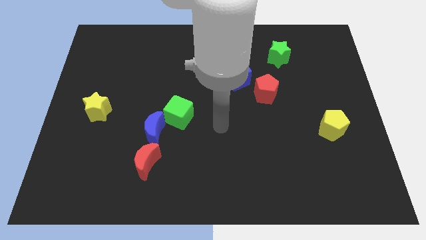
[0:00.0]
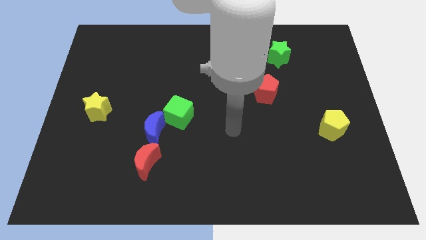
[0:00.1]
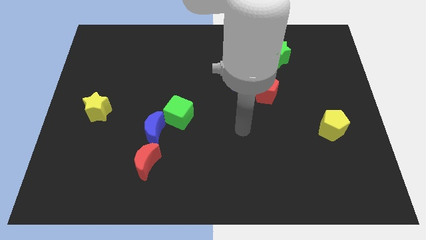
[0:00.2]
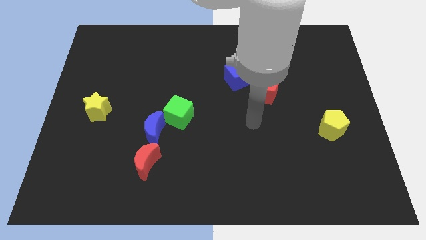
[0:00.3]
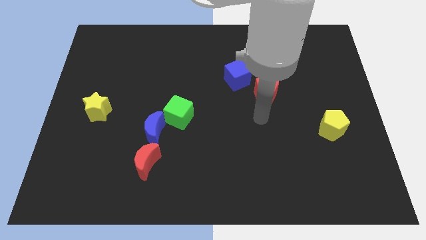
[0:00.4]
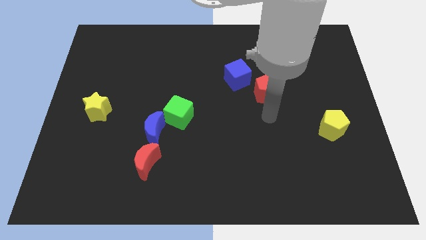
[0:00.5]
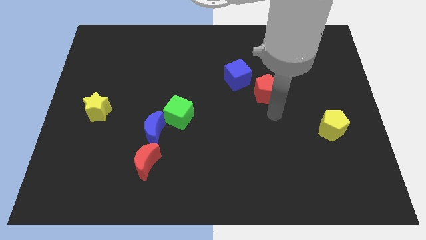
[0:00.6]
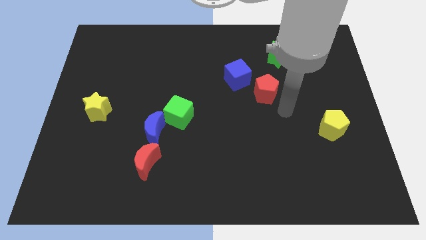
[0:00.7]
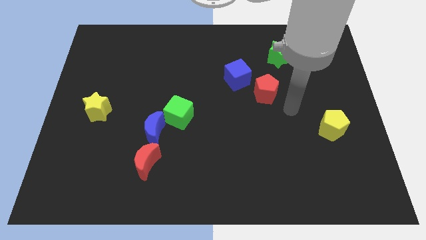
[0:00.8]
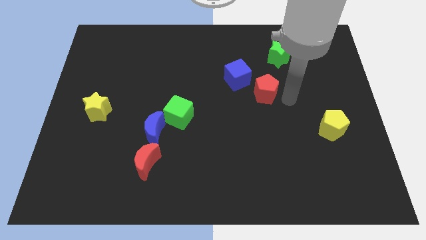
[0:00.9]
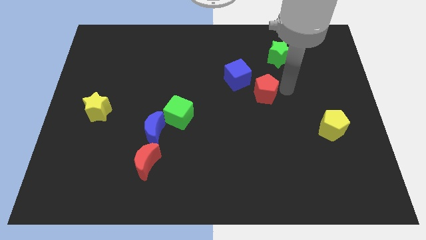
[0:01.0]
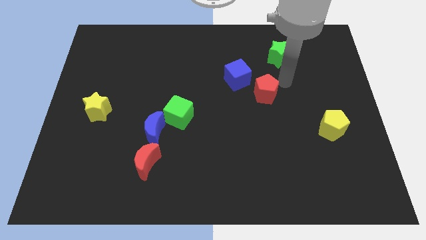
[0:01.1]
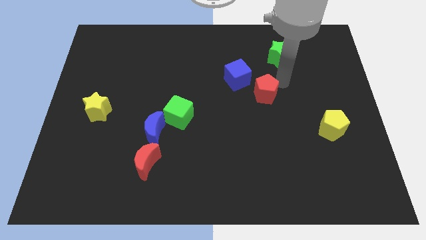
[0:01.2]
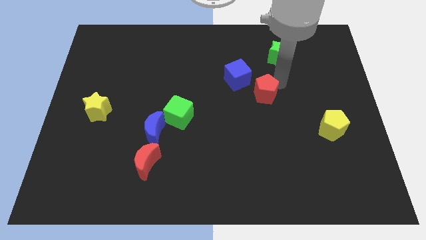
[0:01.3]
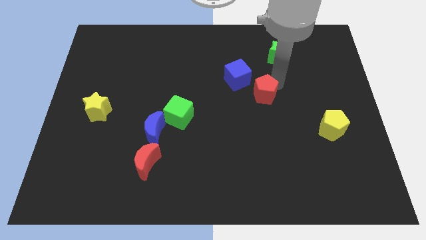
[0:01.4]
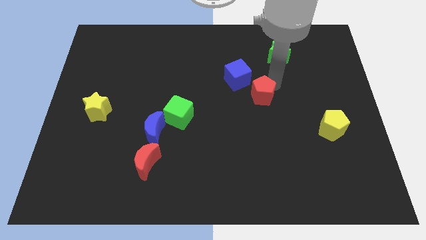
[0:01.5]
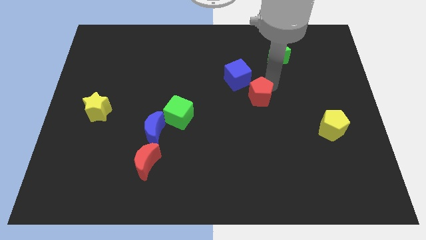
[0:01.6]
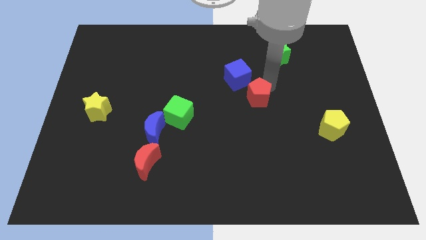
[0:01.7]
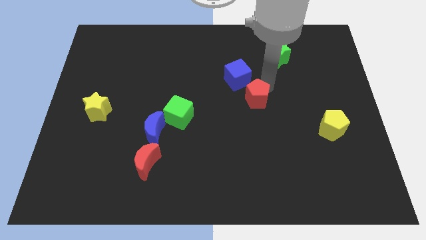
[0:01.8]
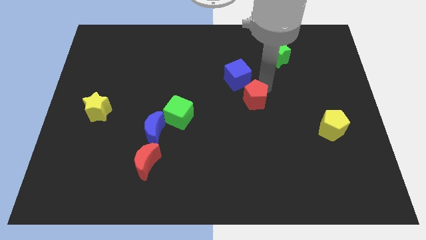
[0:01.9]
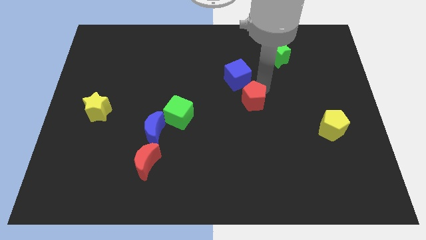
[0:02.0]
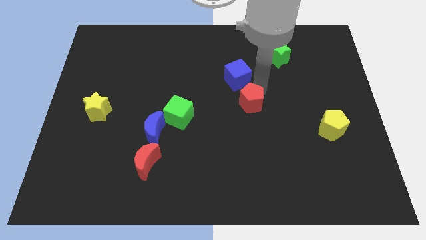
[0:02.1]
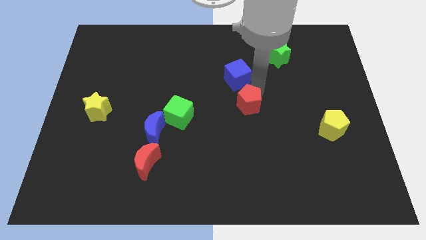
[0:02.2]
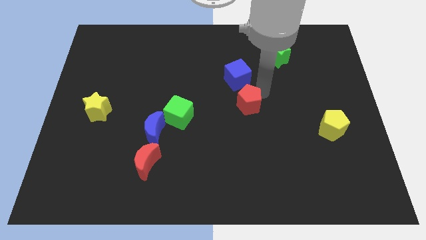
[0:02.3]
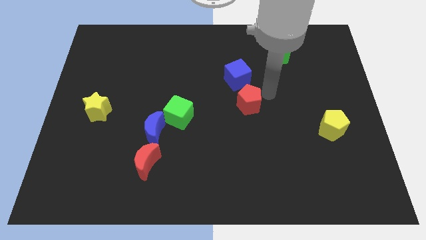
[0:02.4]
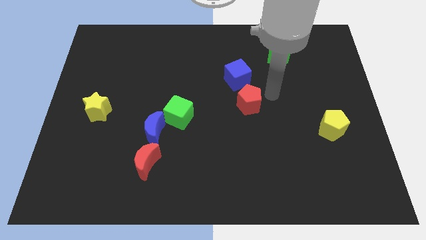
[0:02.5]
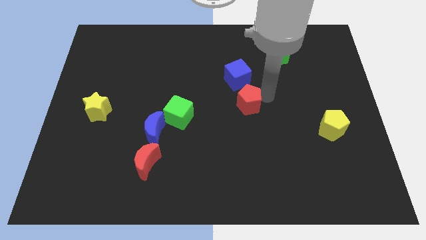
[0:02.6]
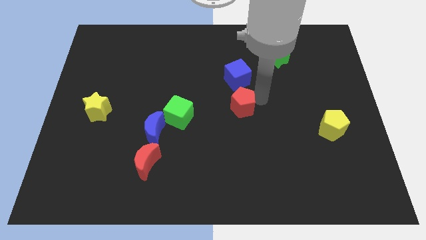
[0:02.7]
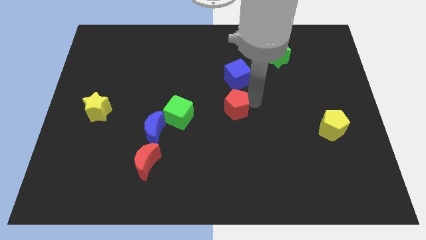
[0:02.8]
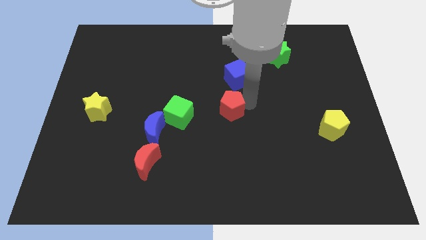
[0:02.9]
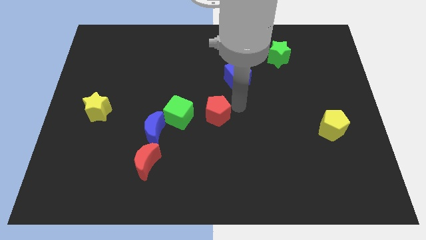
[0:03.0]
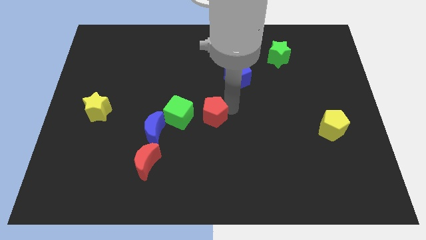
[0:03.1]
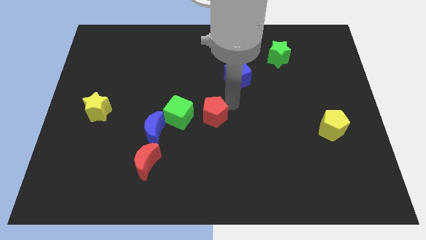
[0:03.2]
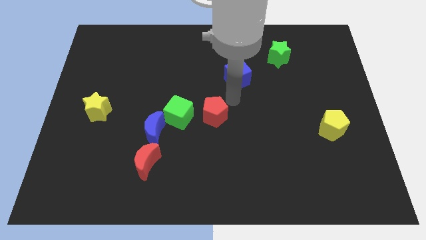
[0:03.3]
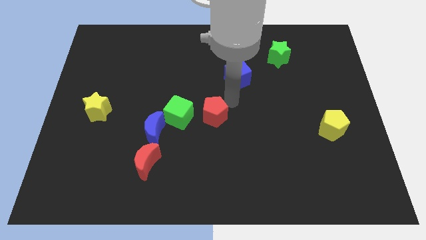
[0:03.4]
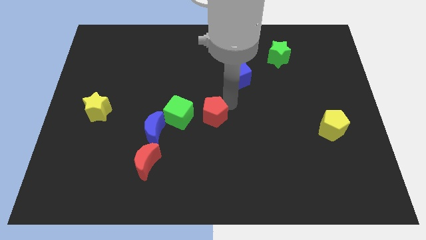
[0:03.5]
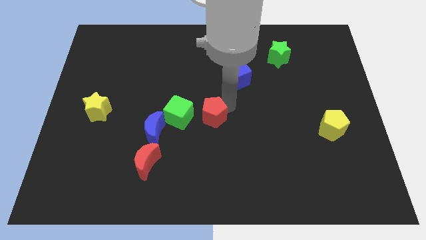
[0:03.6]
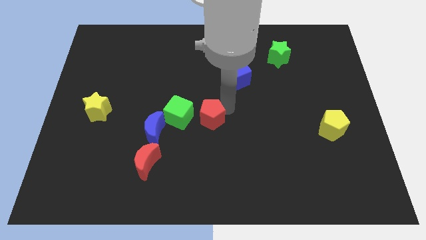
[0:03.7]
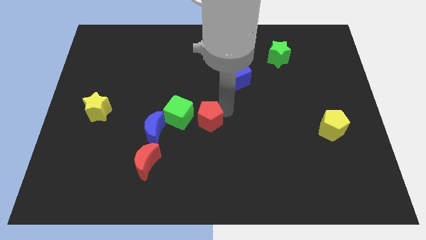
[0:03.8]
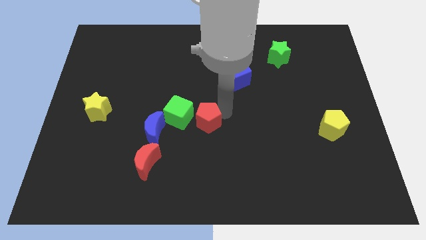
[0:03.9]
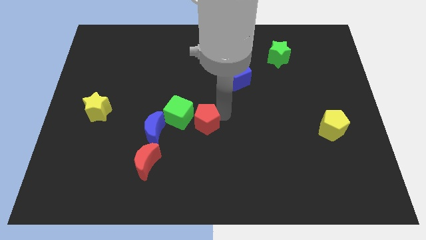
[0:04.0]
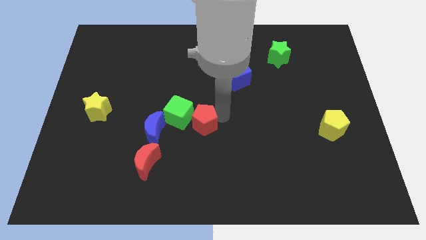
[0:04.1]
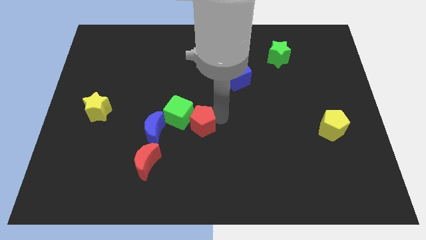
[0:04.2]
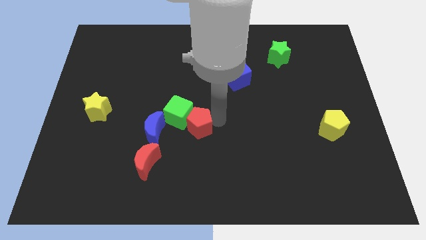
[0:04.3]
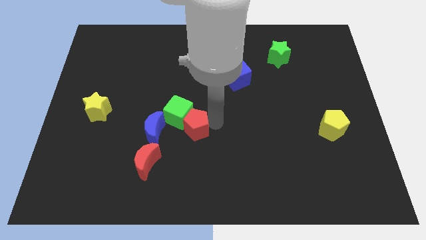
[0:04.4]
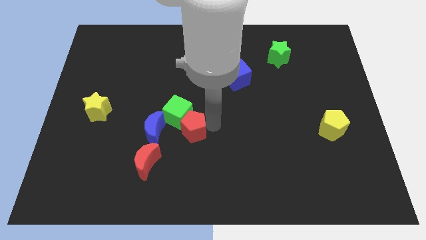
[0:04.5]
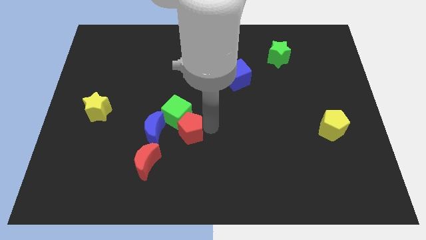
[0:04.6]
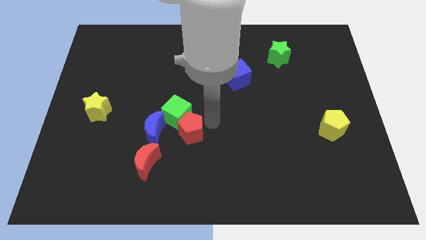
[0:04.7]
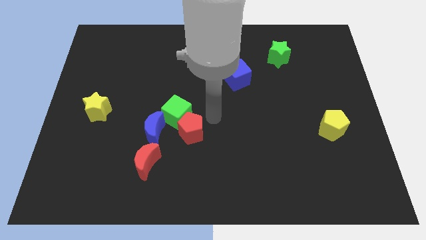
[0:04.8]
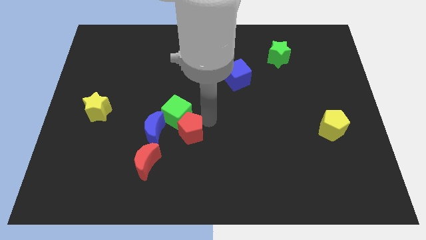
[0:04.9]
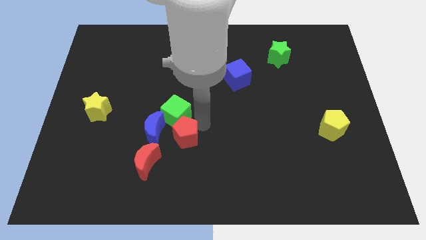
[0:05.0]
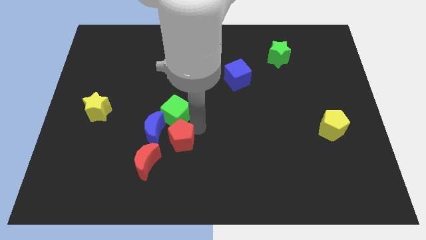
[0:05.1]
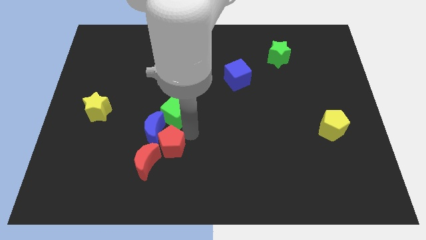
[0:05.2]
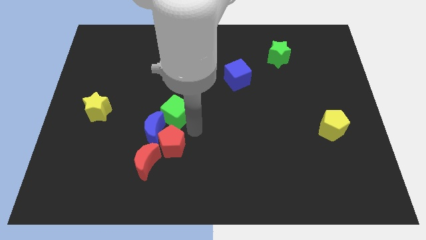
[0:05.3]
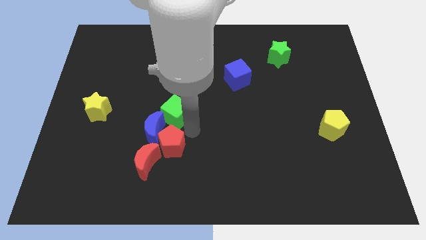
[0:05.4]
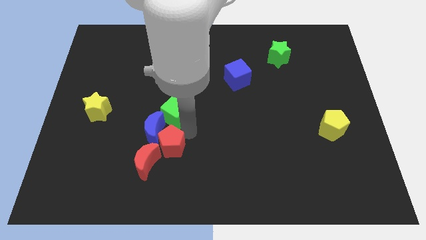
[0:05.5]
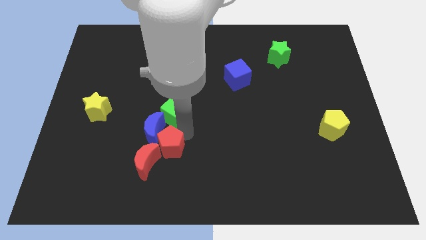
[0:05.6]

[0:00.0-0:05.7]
slide the red pentagon close to the red moon
